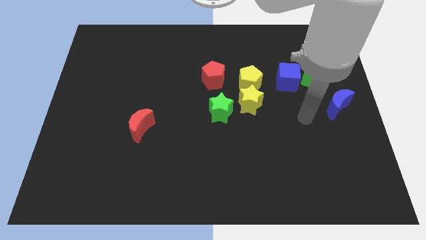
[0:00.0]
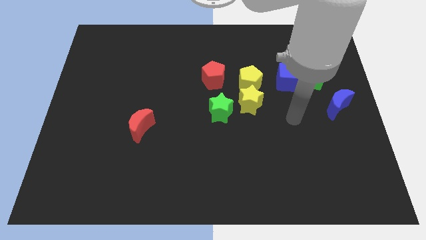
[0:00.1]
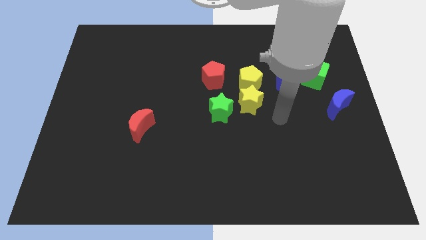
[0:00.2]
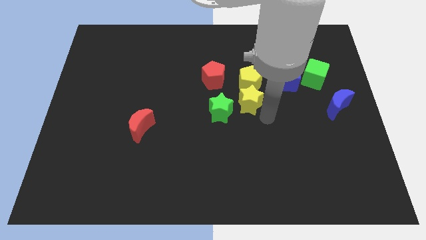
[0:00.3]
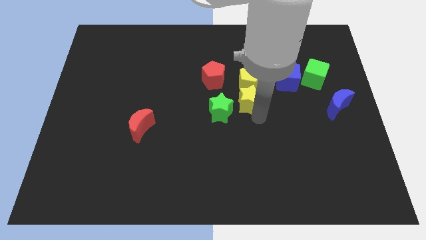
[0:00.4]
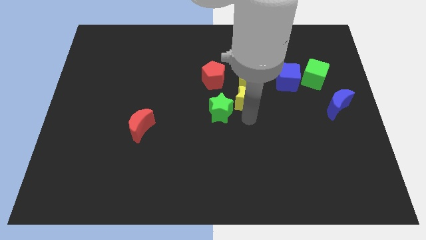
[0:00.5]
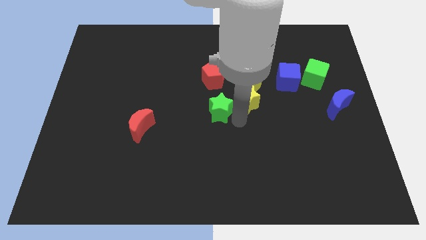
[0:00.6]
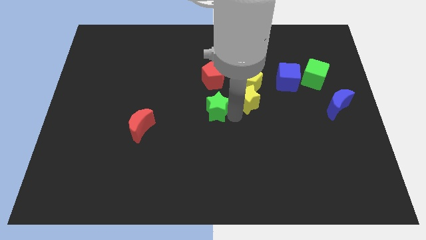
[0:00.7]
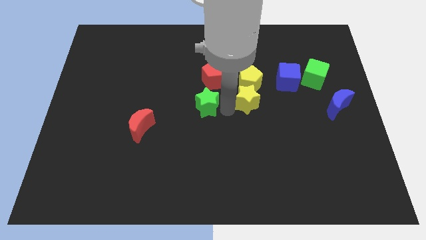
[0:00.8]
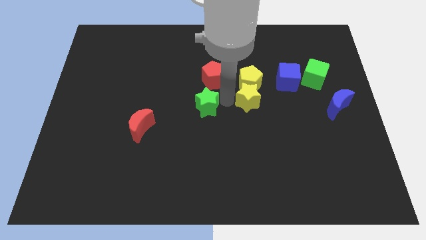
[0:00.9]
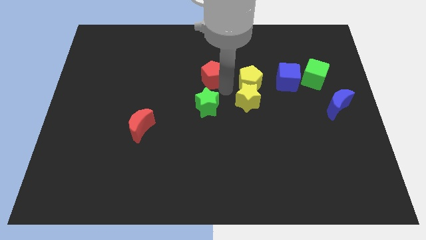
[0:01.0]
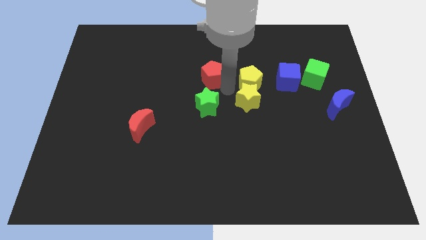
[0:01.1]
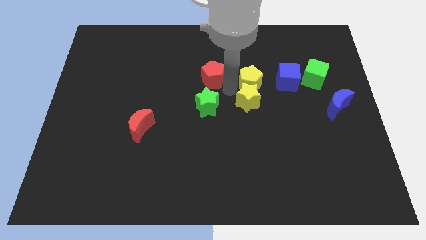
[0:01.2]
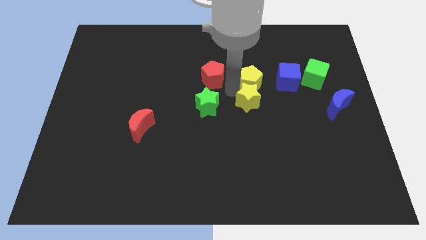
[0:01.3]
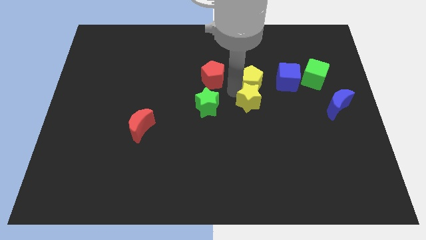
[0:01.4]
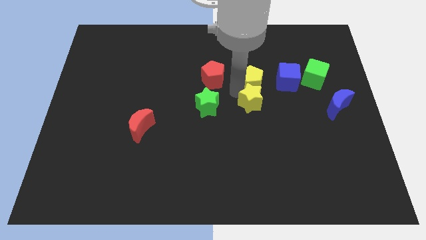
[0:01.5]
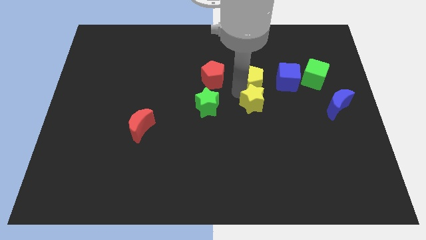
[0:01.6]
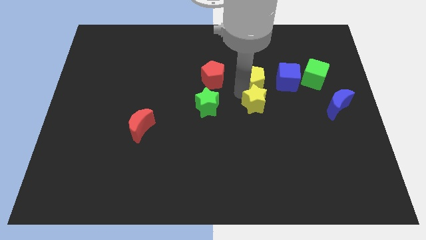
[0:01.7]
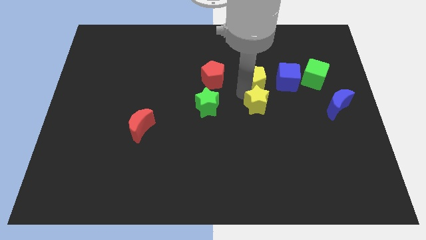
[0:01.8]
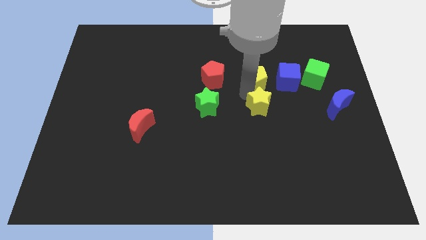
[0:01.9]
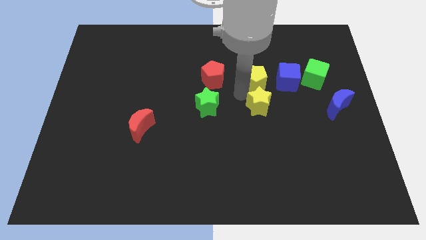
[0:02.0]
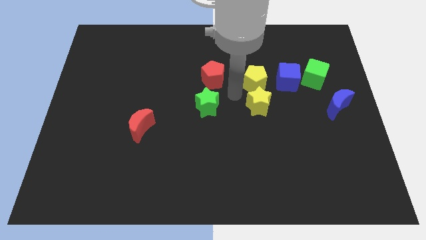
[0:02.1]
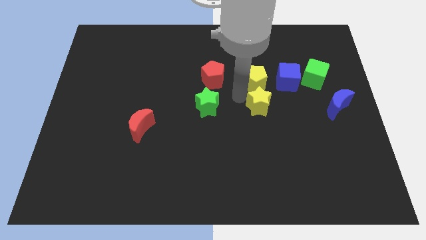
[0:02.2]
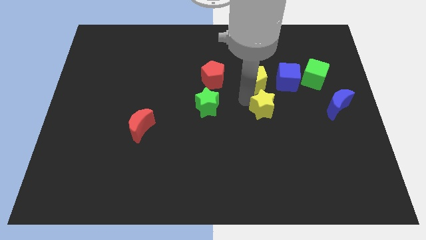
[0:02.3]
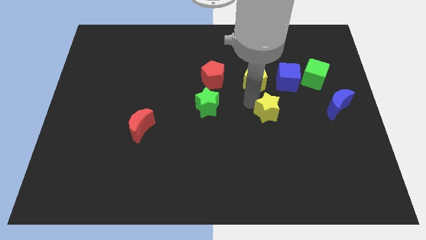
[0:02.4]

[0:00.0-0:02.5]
pull the yellow star apart from the yellow pentagon and green star

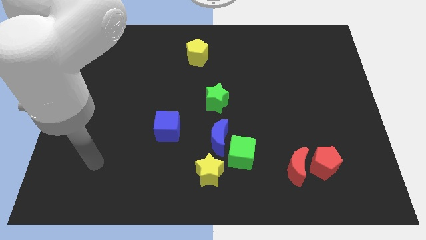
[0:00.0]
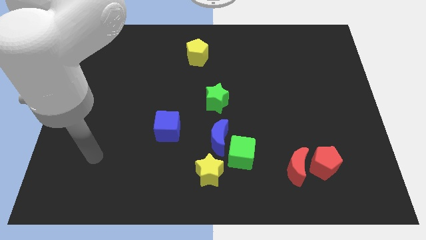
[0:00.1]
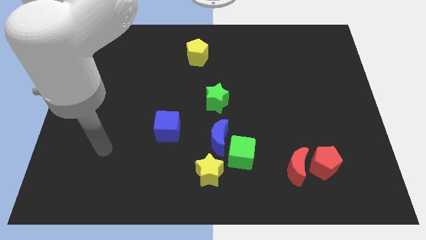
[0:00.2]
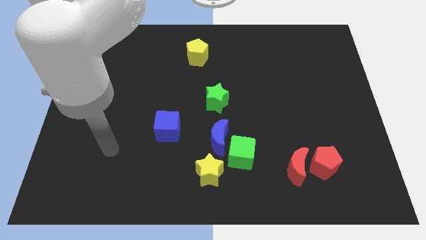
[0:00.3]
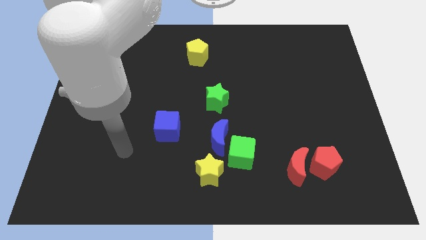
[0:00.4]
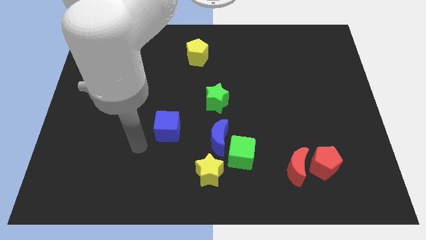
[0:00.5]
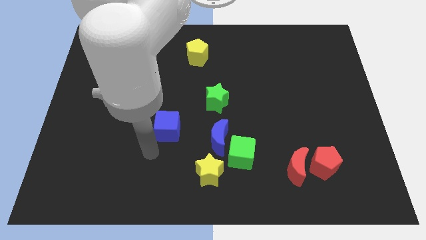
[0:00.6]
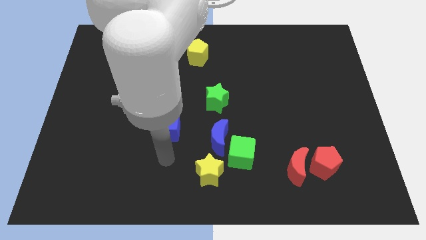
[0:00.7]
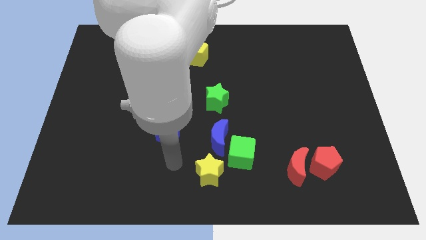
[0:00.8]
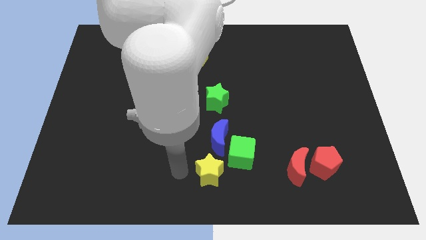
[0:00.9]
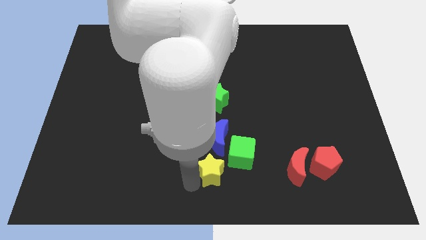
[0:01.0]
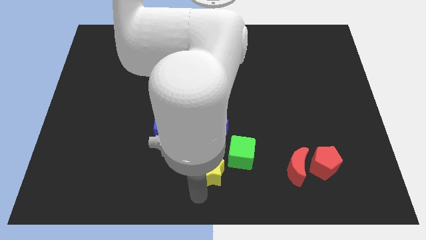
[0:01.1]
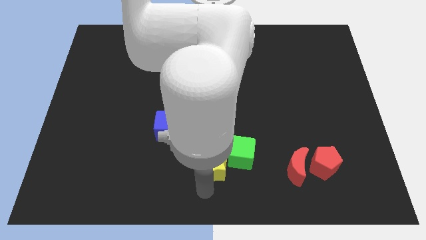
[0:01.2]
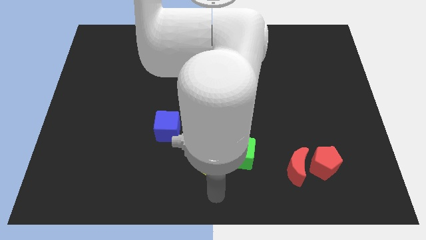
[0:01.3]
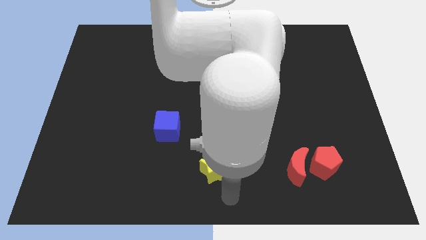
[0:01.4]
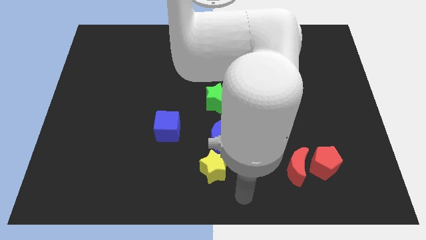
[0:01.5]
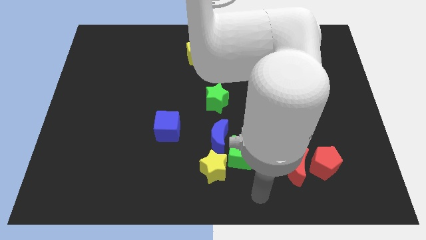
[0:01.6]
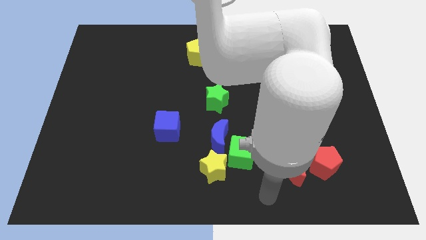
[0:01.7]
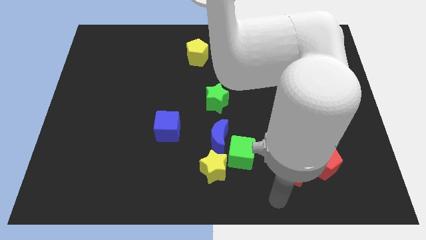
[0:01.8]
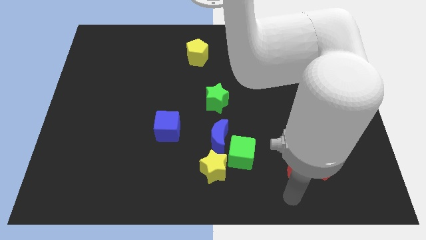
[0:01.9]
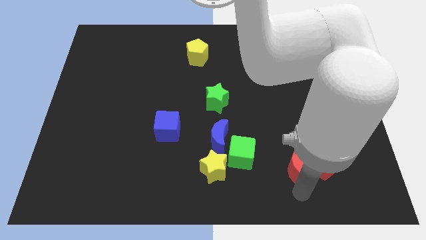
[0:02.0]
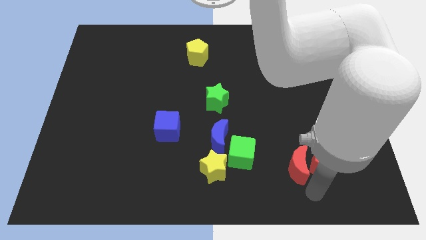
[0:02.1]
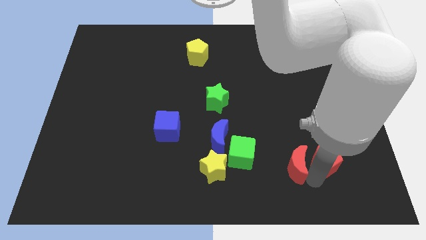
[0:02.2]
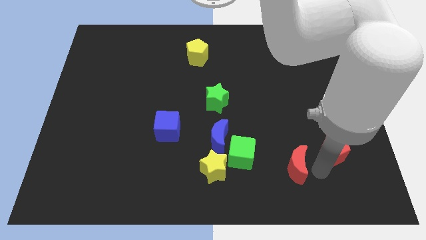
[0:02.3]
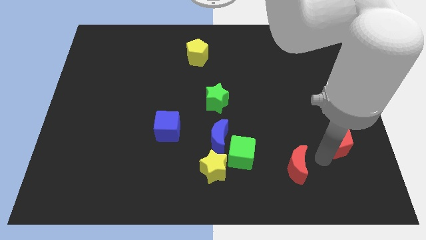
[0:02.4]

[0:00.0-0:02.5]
move the red moon away from the red pentagon

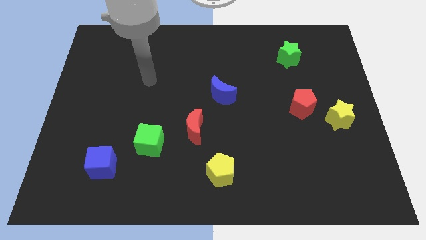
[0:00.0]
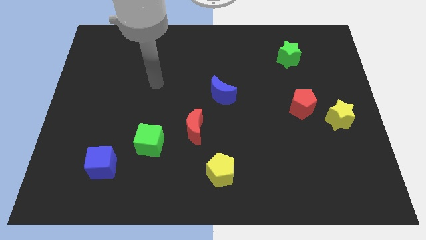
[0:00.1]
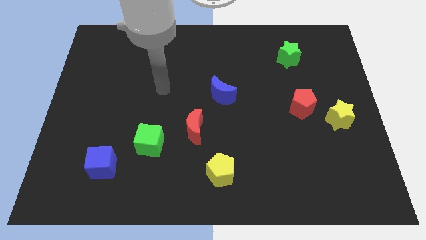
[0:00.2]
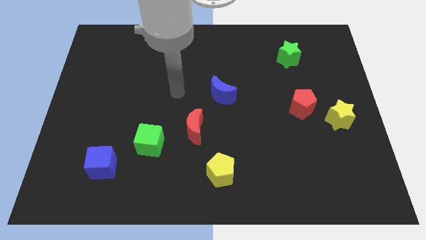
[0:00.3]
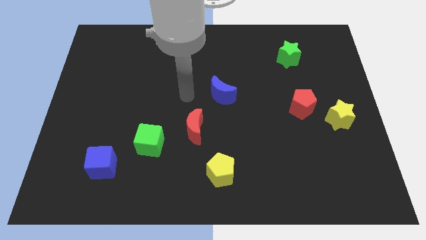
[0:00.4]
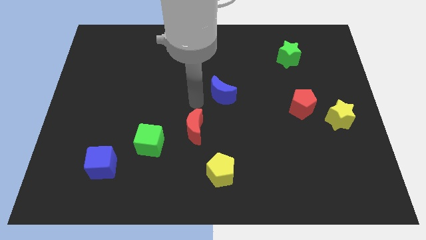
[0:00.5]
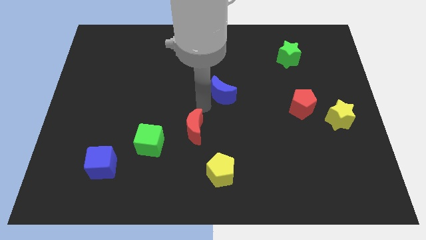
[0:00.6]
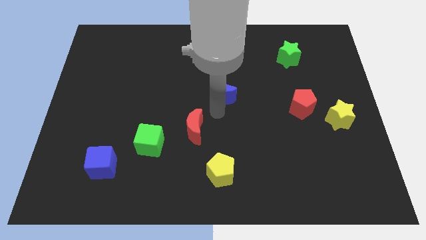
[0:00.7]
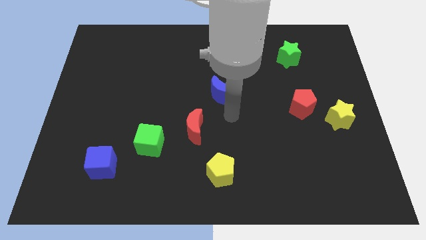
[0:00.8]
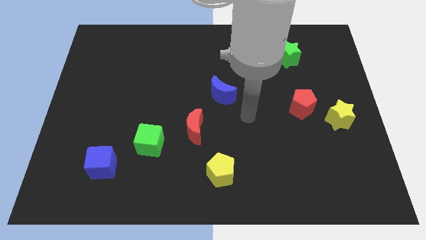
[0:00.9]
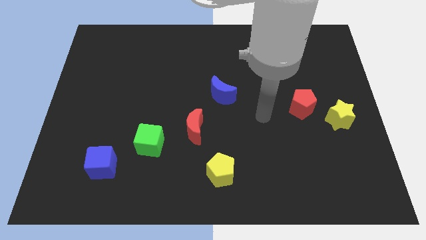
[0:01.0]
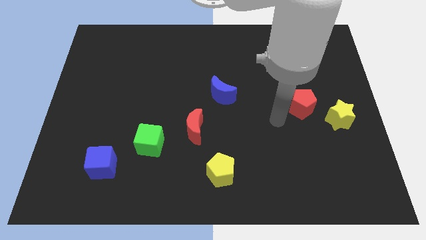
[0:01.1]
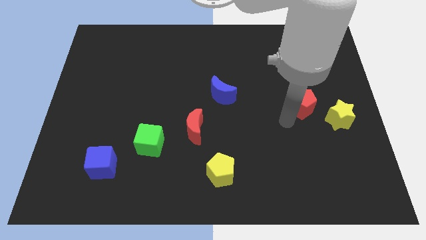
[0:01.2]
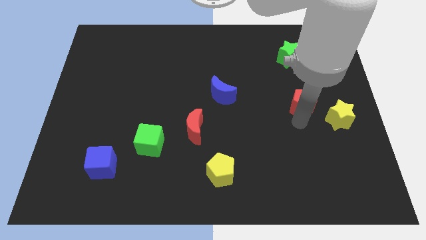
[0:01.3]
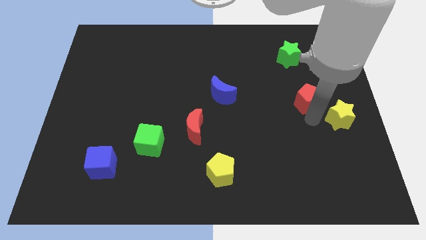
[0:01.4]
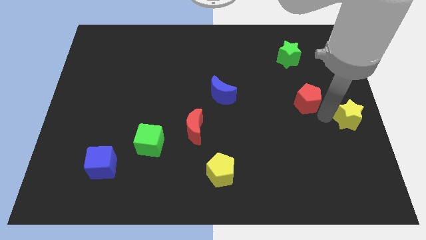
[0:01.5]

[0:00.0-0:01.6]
separate the red pentagon from the yellow star

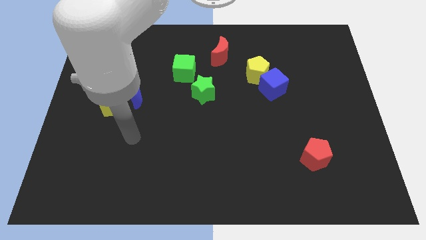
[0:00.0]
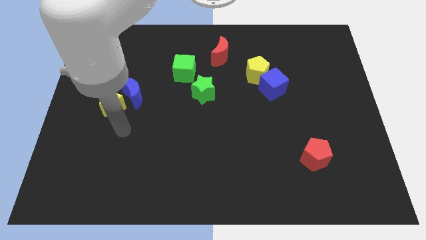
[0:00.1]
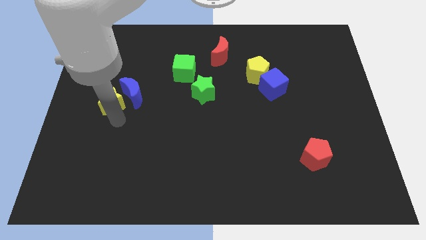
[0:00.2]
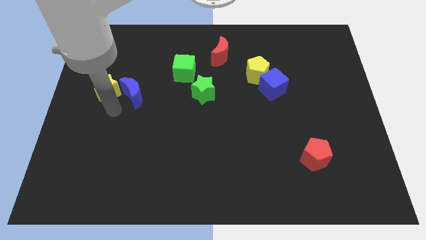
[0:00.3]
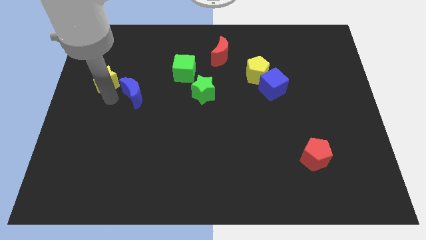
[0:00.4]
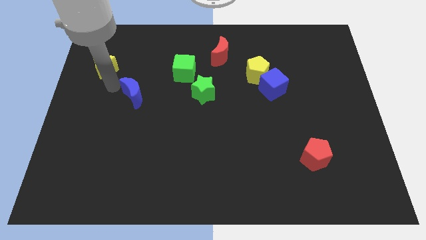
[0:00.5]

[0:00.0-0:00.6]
move the blue moon away from the yellow star

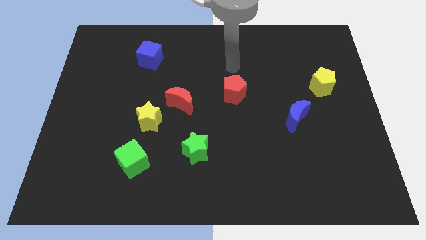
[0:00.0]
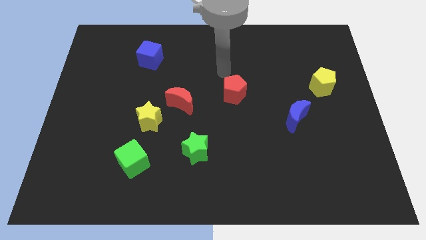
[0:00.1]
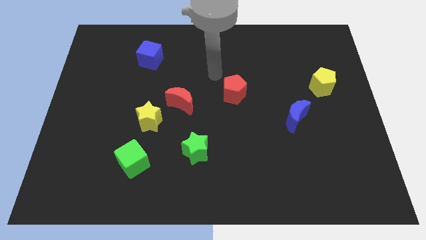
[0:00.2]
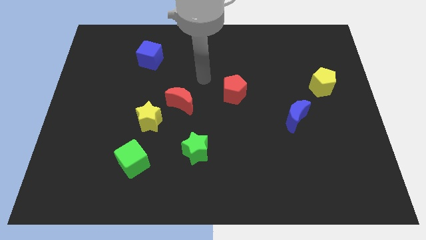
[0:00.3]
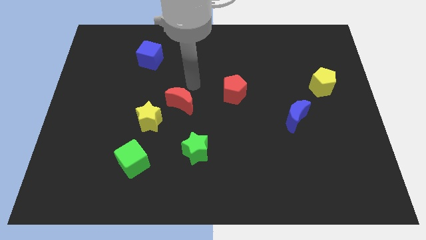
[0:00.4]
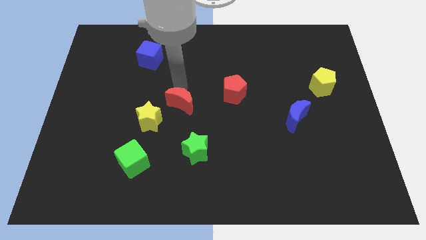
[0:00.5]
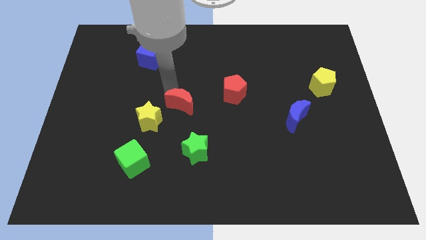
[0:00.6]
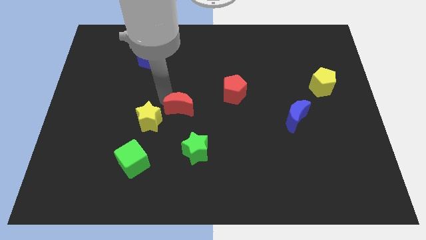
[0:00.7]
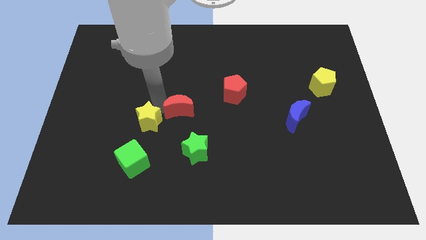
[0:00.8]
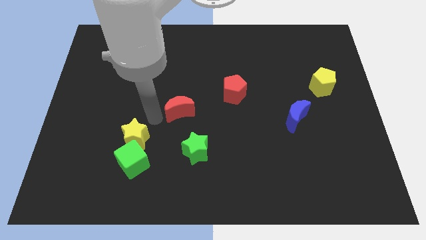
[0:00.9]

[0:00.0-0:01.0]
move the red moon away from the yellow star

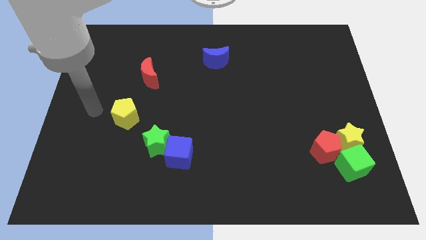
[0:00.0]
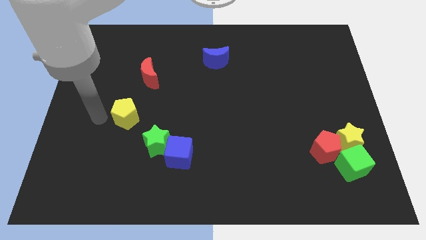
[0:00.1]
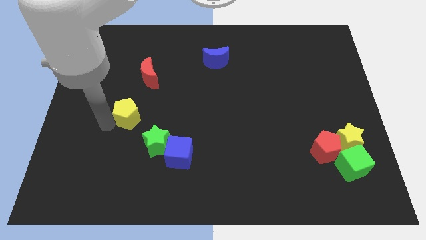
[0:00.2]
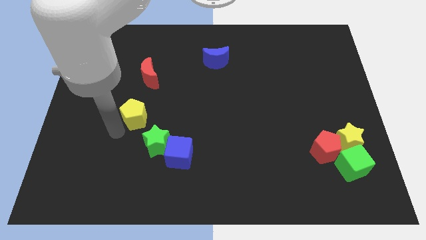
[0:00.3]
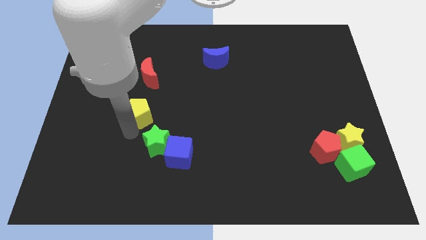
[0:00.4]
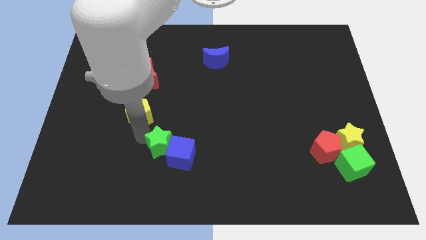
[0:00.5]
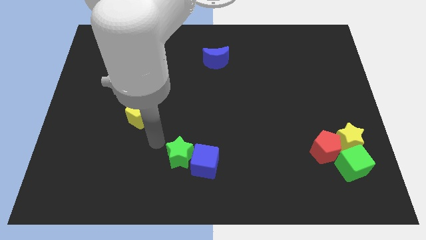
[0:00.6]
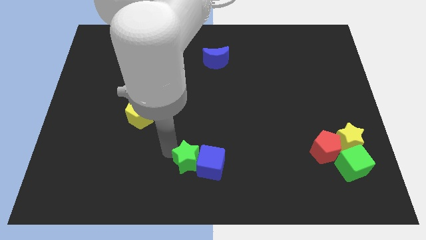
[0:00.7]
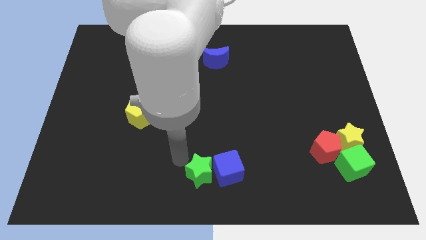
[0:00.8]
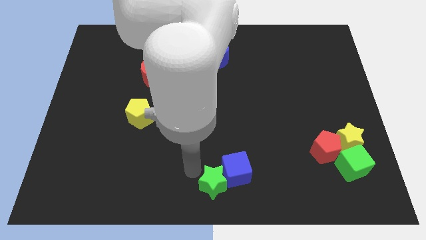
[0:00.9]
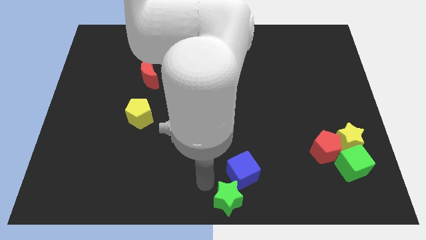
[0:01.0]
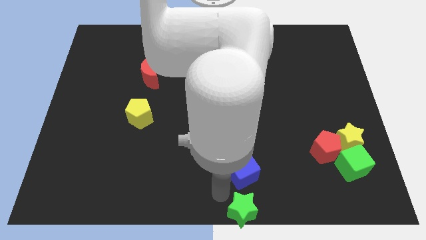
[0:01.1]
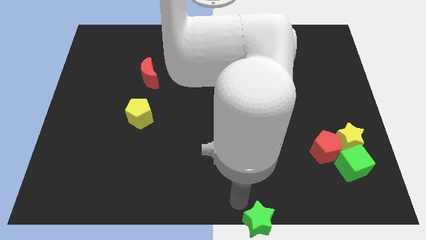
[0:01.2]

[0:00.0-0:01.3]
move the blue cube away from the green star
